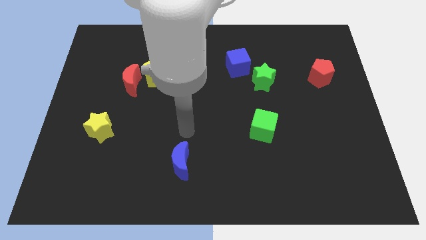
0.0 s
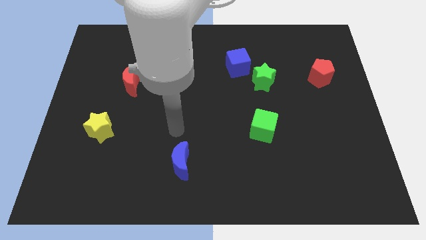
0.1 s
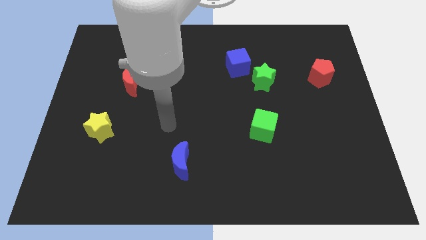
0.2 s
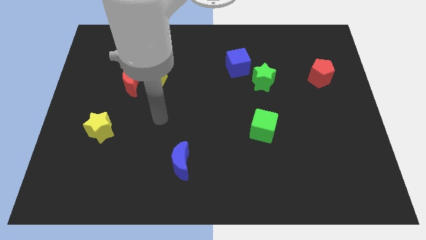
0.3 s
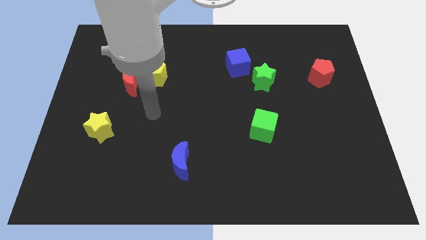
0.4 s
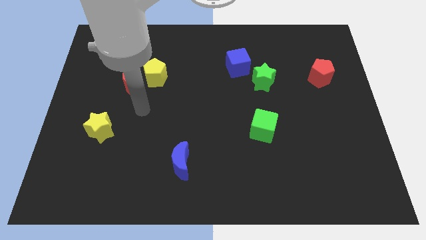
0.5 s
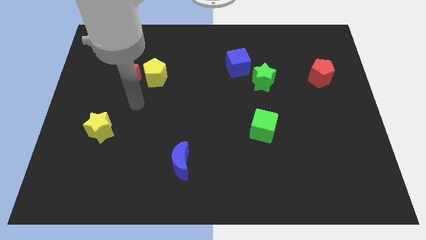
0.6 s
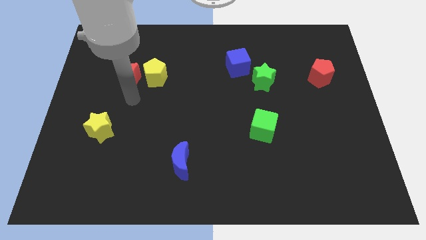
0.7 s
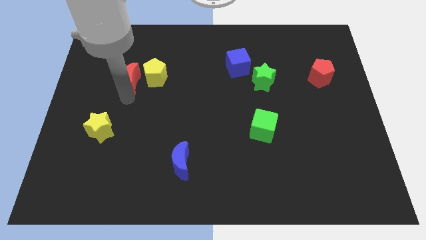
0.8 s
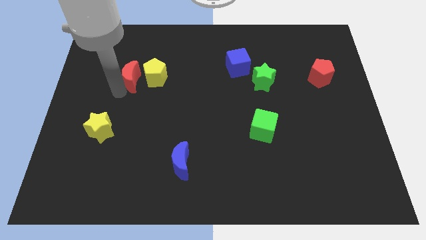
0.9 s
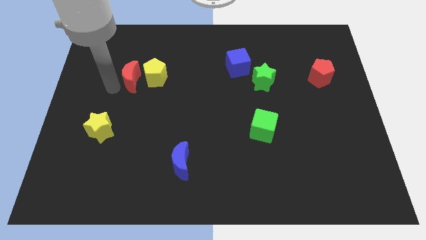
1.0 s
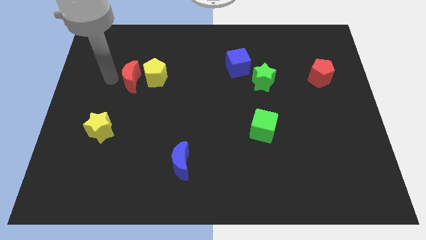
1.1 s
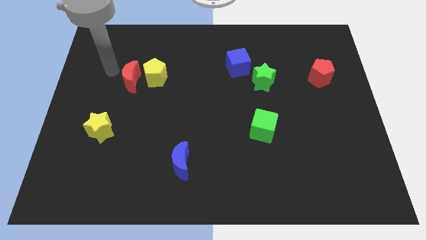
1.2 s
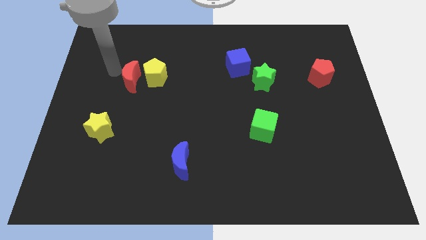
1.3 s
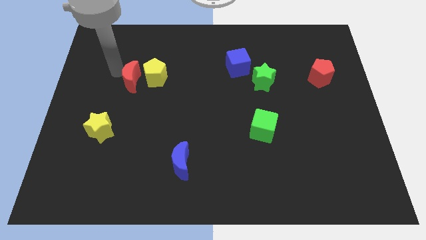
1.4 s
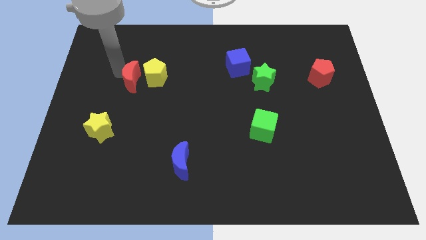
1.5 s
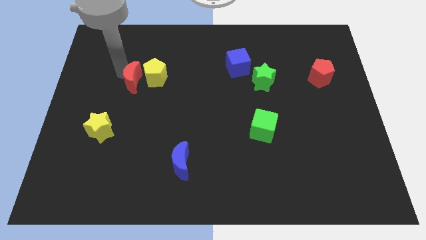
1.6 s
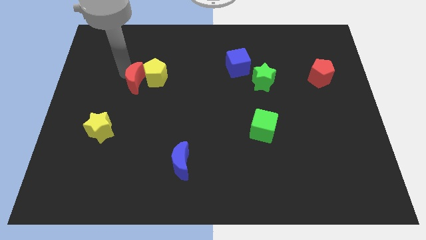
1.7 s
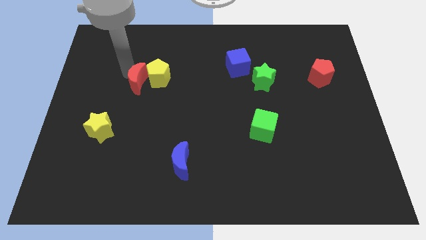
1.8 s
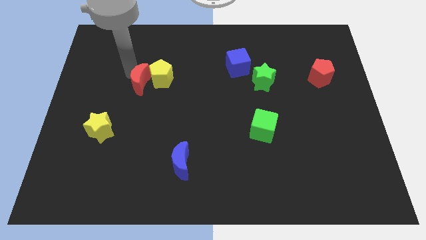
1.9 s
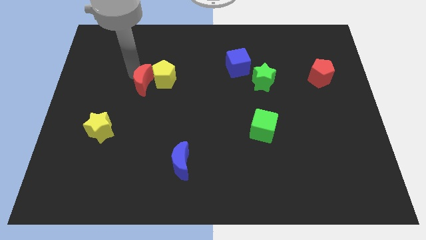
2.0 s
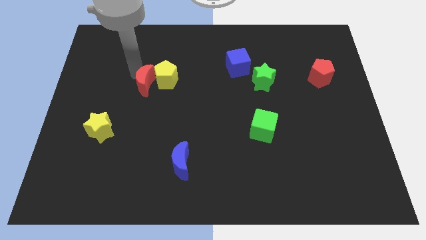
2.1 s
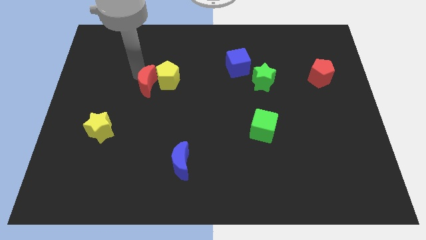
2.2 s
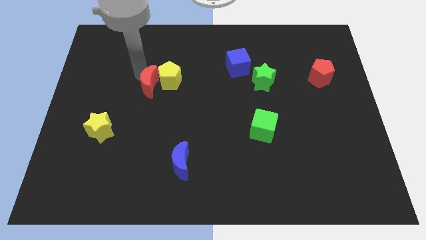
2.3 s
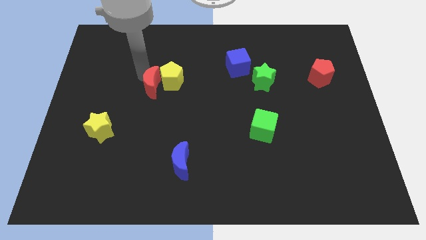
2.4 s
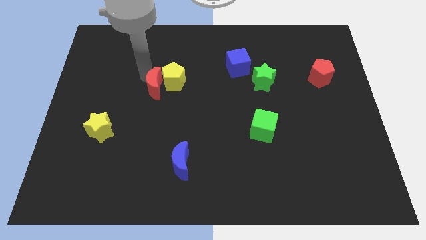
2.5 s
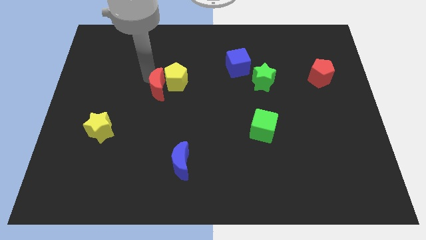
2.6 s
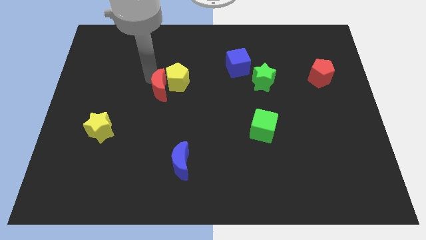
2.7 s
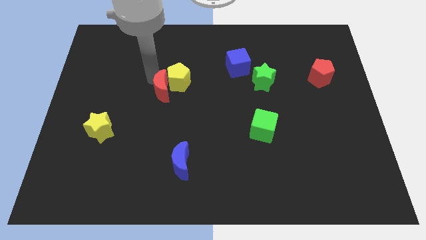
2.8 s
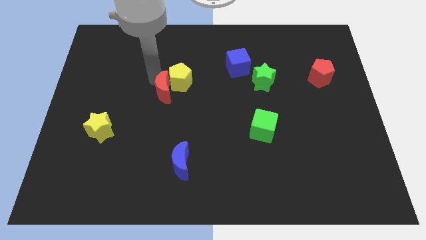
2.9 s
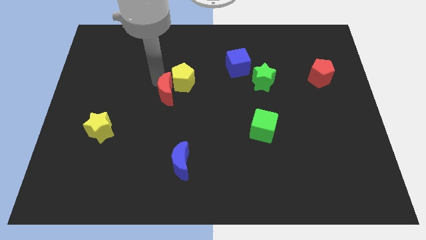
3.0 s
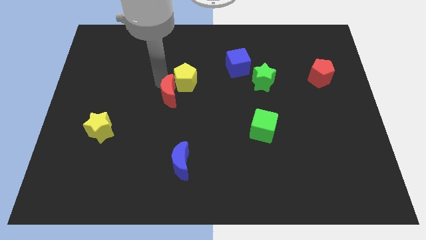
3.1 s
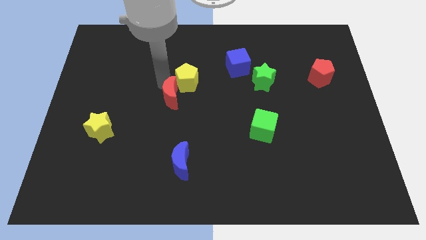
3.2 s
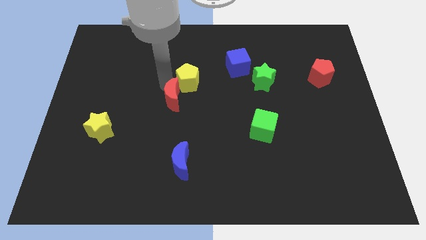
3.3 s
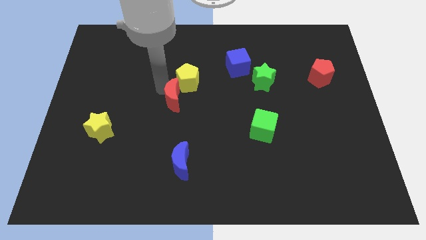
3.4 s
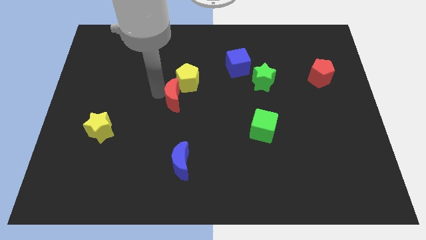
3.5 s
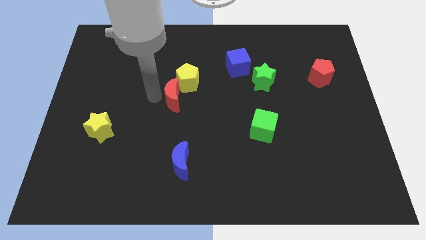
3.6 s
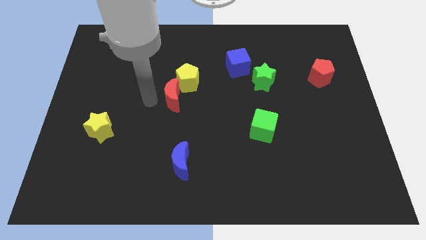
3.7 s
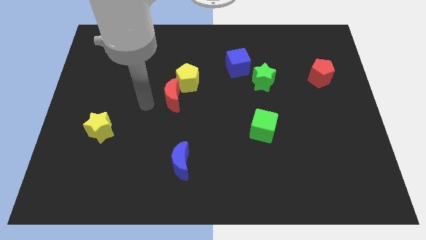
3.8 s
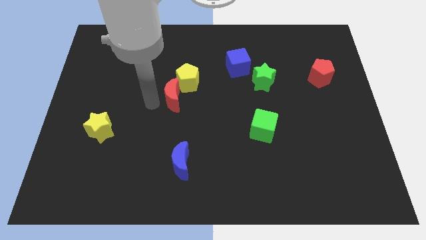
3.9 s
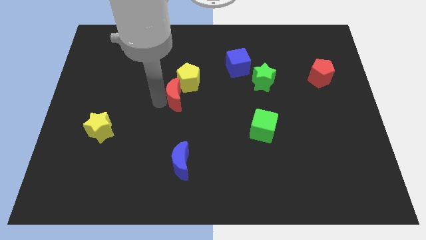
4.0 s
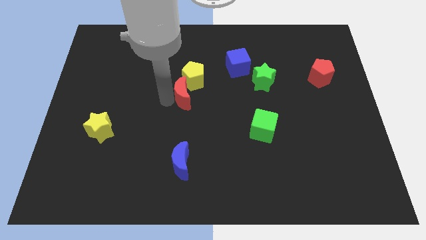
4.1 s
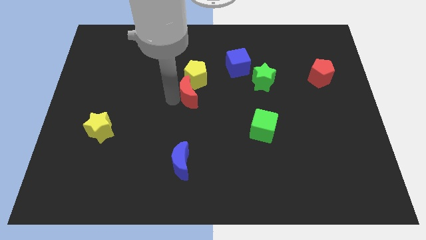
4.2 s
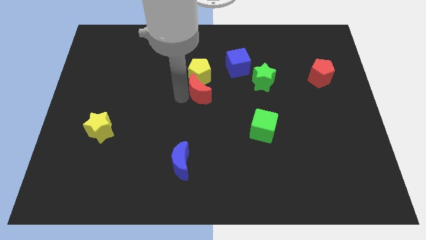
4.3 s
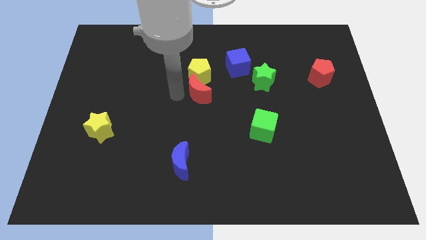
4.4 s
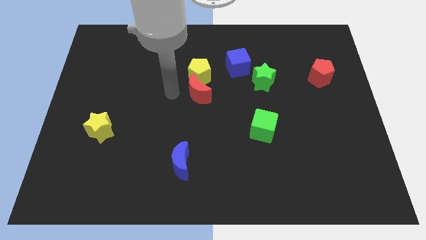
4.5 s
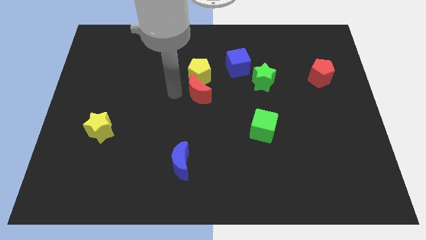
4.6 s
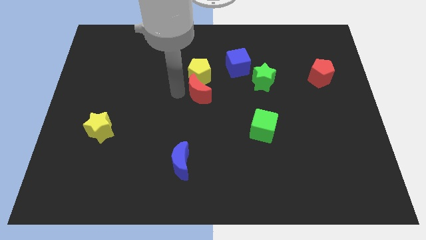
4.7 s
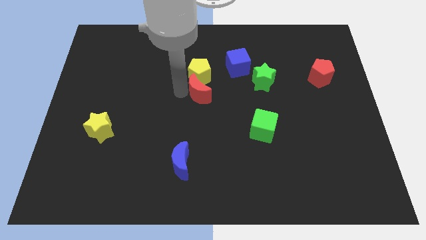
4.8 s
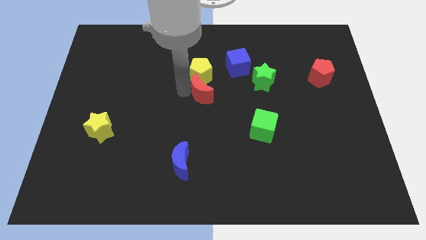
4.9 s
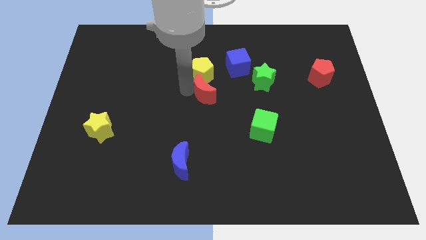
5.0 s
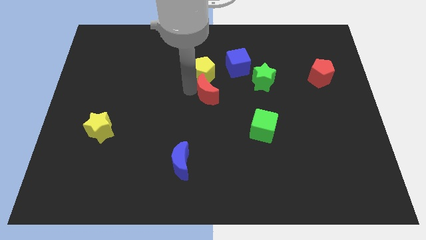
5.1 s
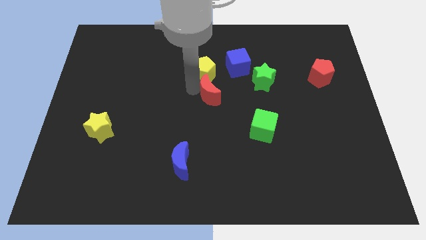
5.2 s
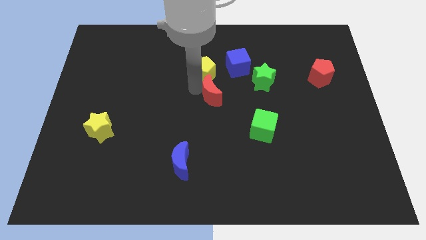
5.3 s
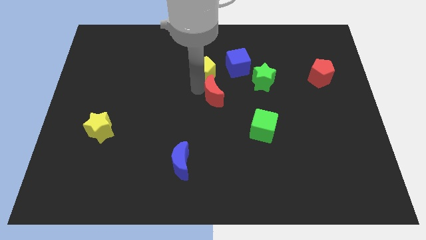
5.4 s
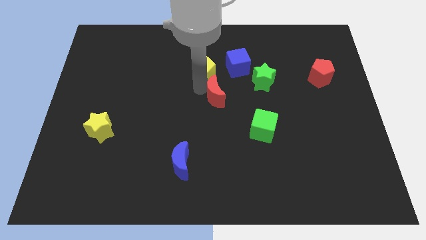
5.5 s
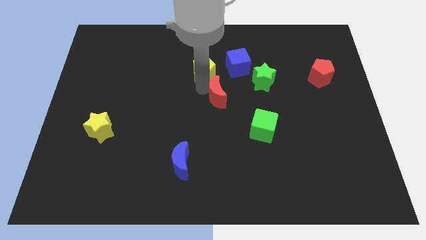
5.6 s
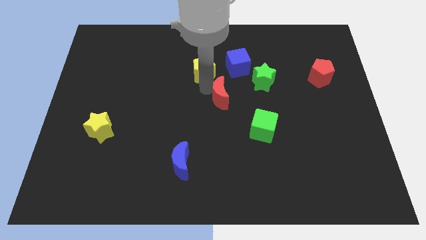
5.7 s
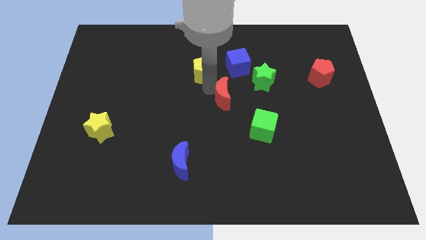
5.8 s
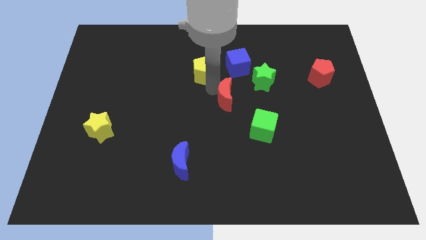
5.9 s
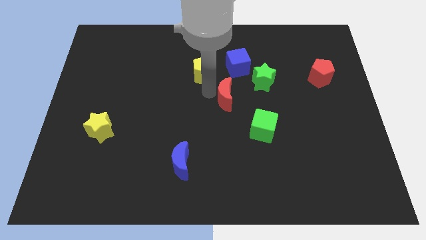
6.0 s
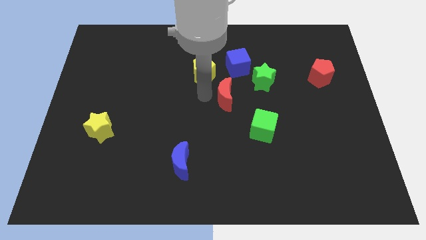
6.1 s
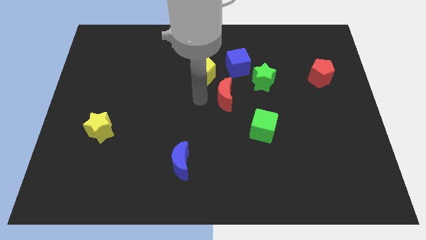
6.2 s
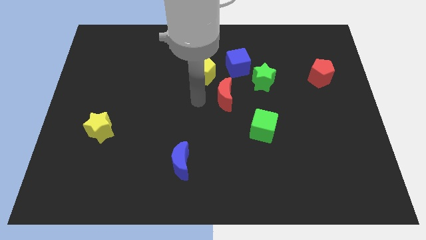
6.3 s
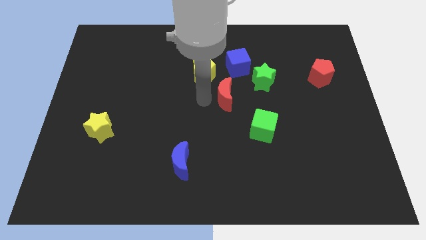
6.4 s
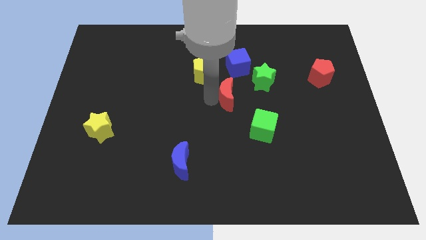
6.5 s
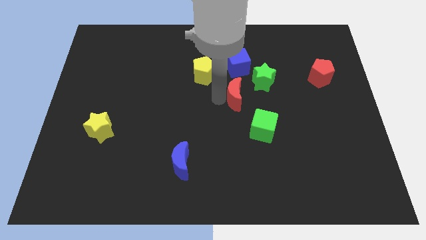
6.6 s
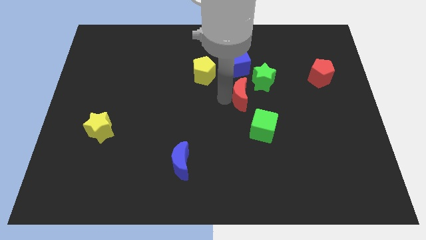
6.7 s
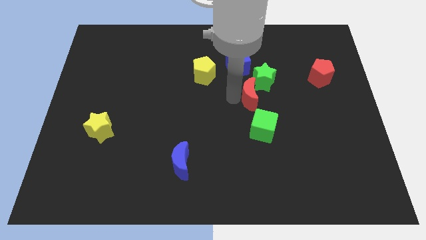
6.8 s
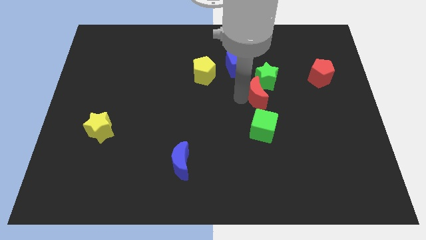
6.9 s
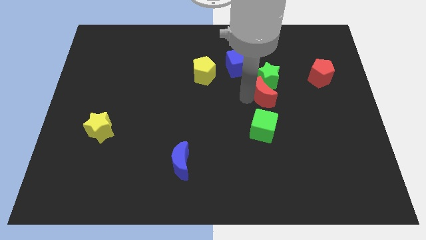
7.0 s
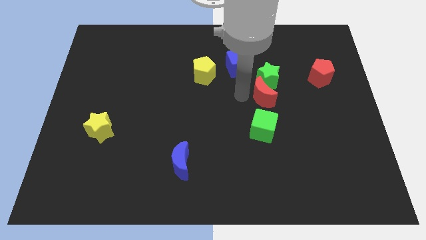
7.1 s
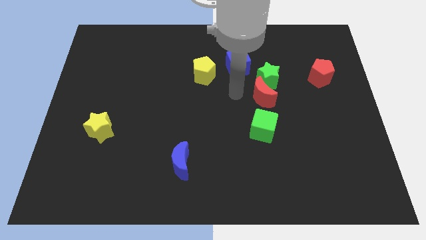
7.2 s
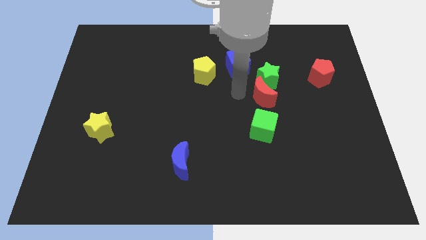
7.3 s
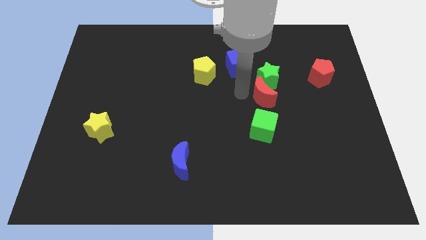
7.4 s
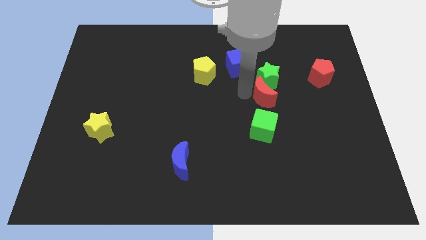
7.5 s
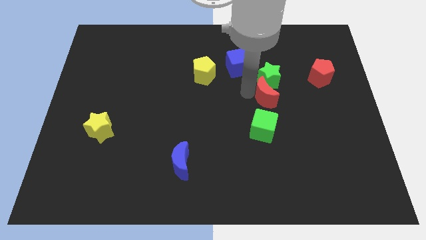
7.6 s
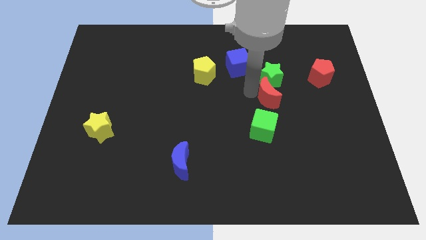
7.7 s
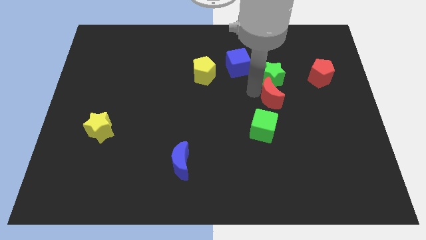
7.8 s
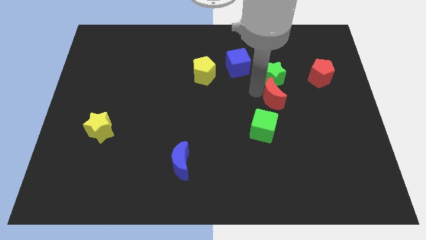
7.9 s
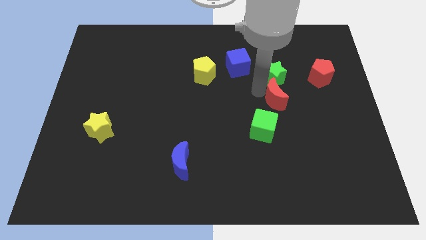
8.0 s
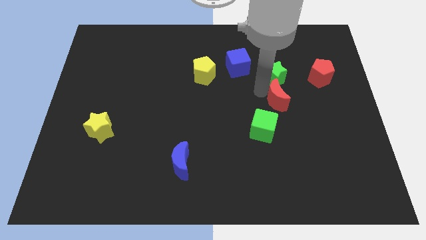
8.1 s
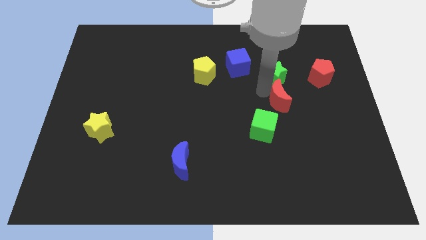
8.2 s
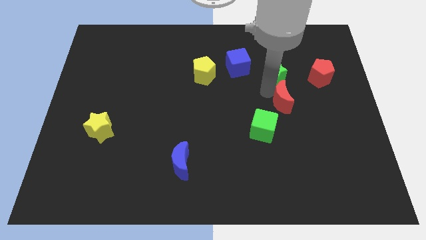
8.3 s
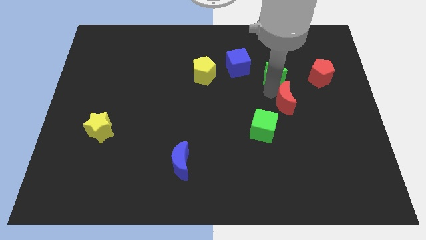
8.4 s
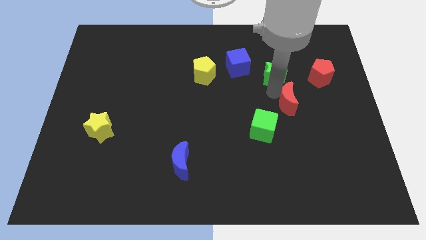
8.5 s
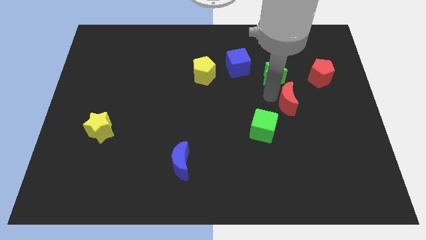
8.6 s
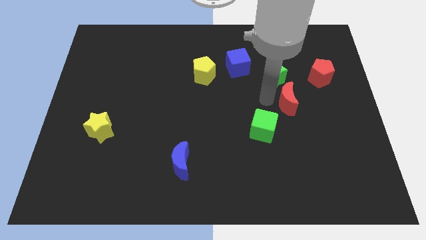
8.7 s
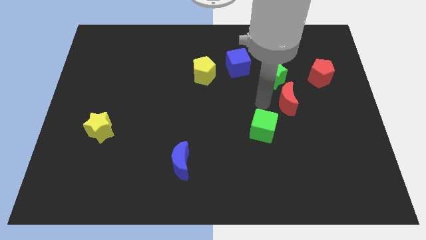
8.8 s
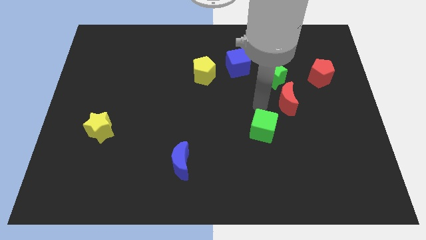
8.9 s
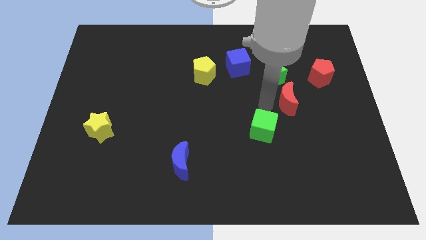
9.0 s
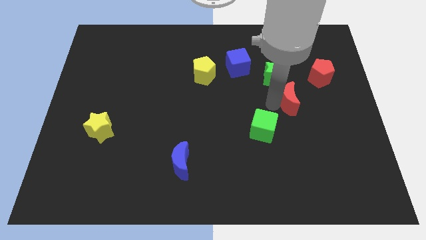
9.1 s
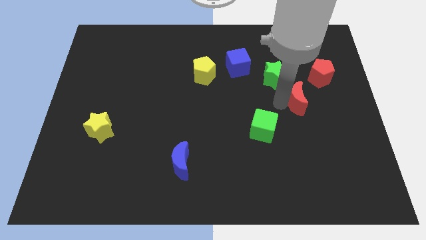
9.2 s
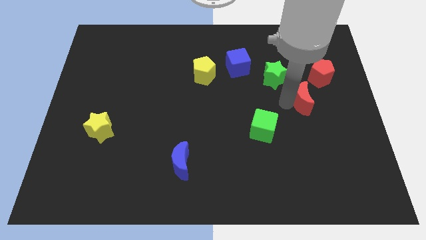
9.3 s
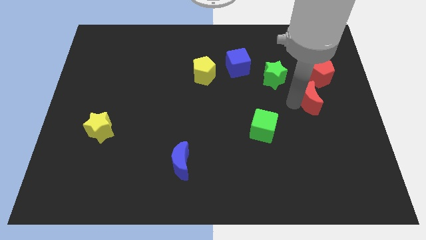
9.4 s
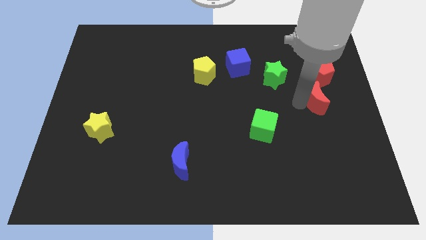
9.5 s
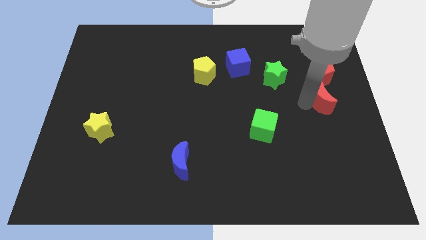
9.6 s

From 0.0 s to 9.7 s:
push the red moon to the right side of the board
